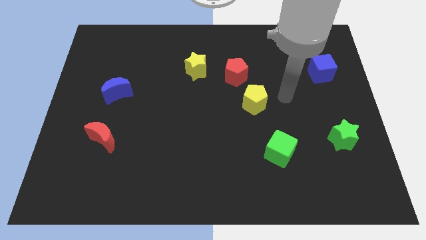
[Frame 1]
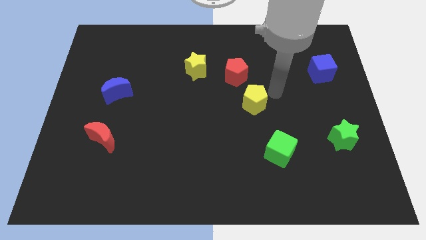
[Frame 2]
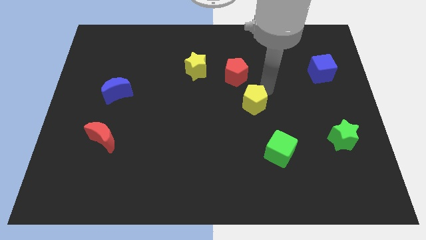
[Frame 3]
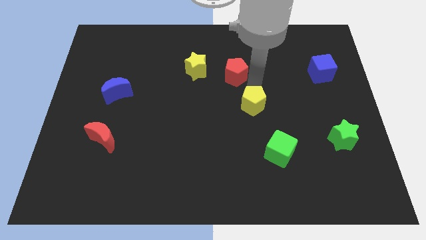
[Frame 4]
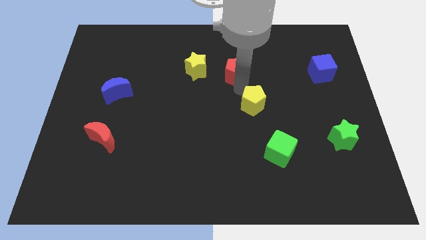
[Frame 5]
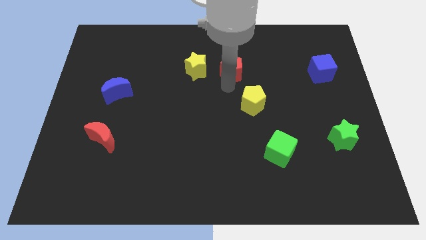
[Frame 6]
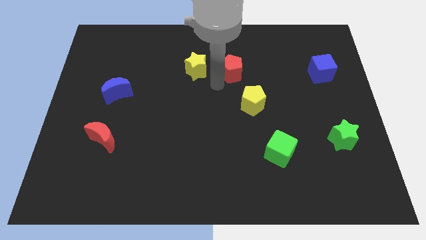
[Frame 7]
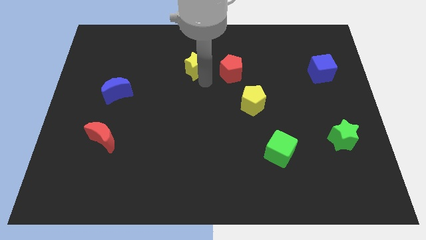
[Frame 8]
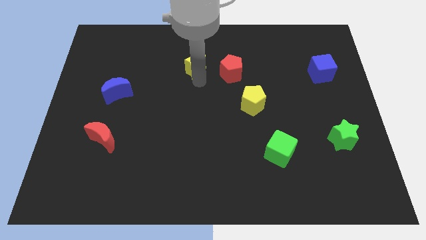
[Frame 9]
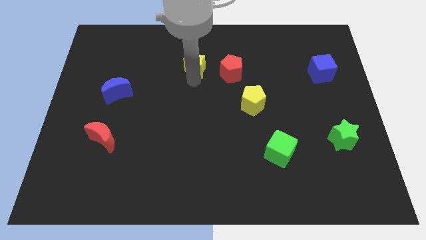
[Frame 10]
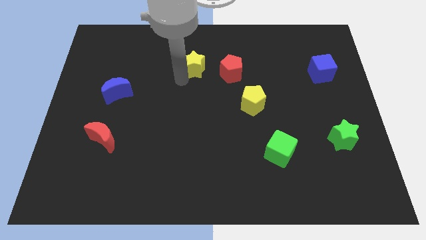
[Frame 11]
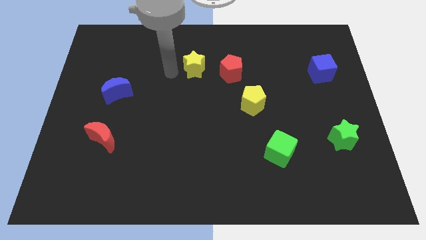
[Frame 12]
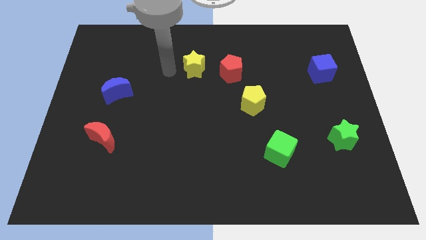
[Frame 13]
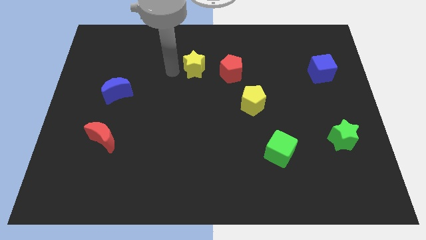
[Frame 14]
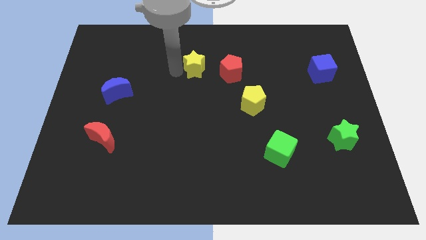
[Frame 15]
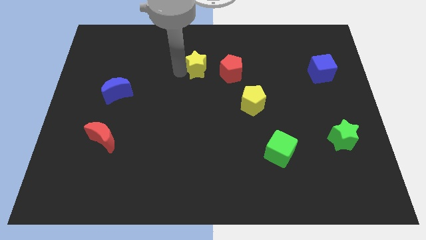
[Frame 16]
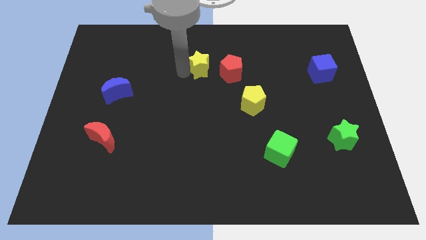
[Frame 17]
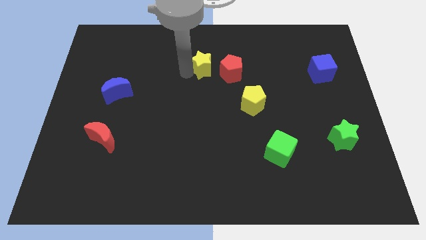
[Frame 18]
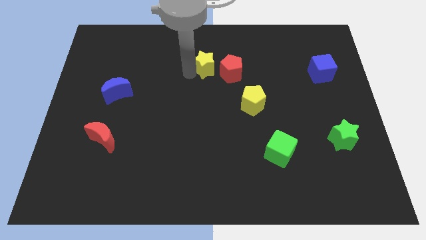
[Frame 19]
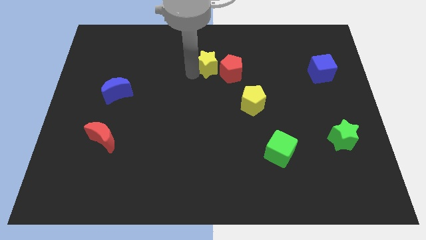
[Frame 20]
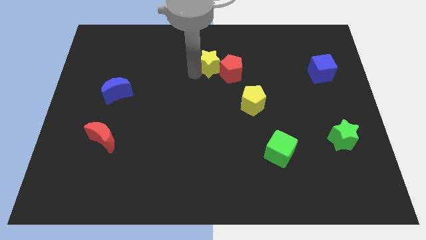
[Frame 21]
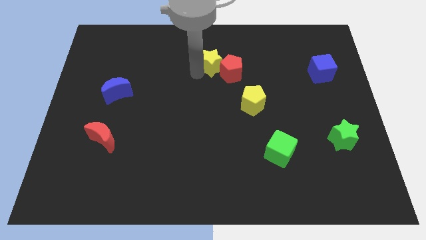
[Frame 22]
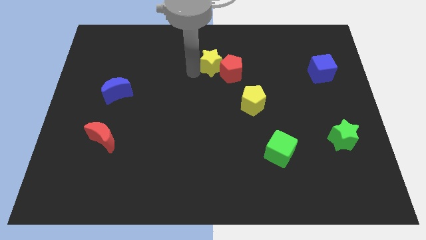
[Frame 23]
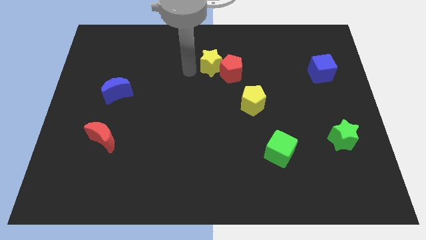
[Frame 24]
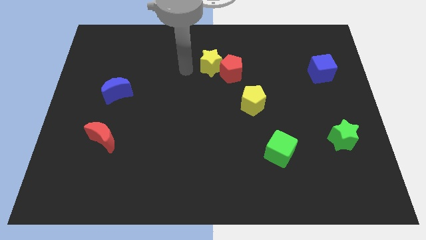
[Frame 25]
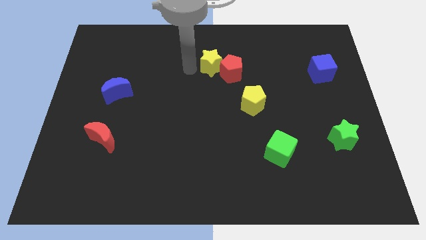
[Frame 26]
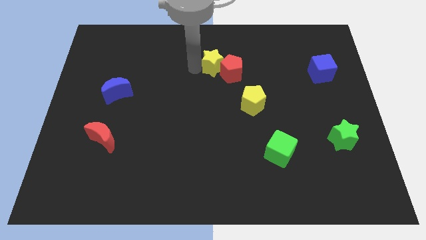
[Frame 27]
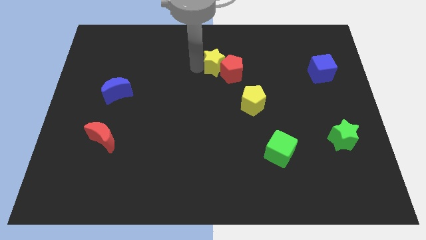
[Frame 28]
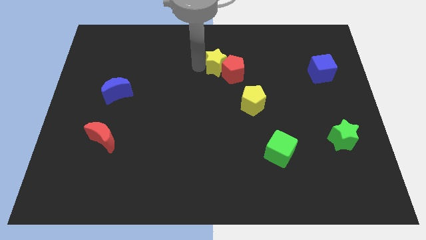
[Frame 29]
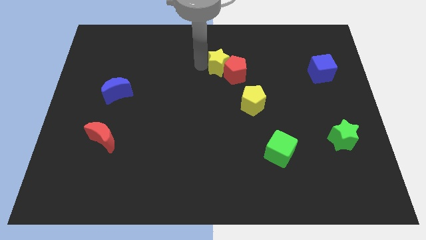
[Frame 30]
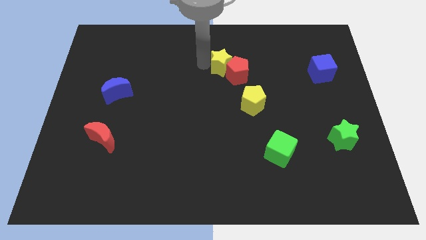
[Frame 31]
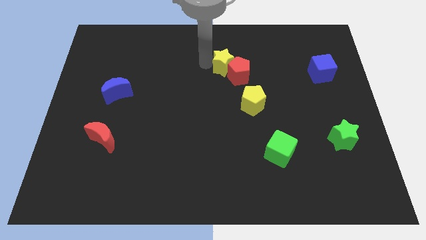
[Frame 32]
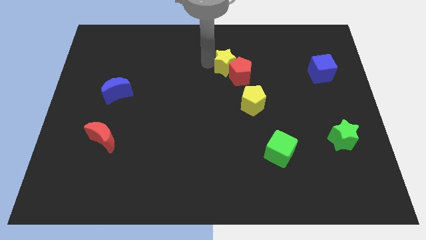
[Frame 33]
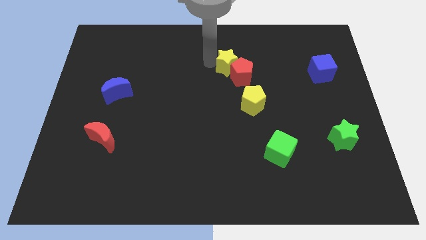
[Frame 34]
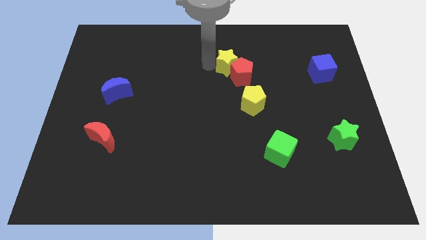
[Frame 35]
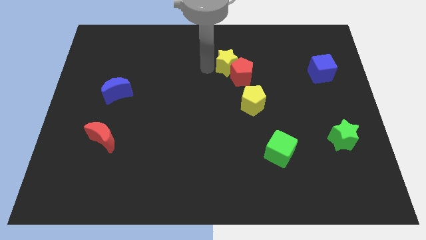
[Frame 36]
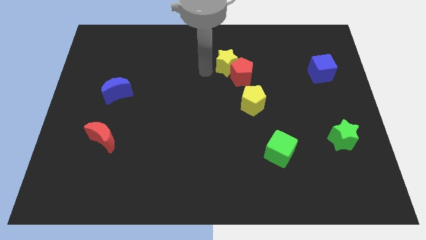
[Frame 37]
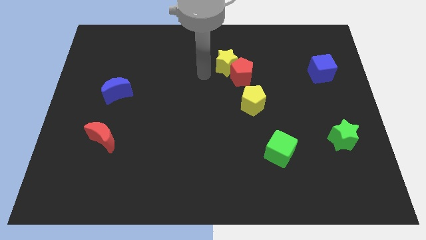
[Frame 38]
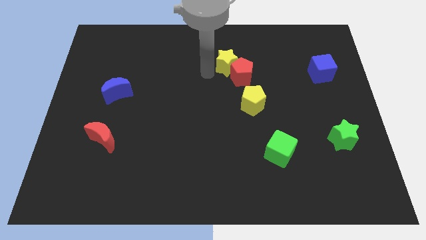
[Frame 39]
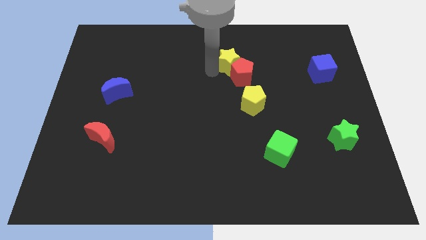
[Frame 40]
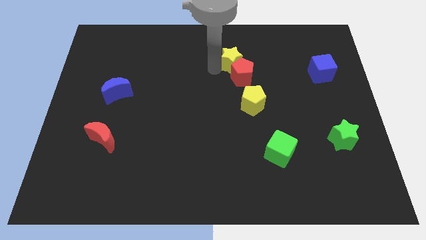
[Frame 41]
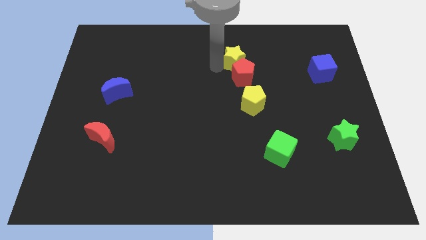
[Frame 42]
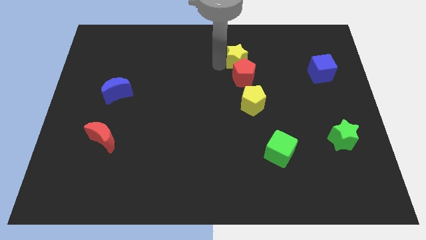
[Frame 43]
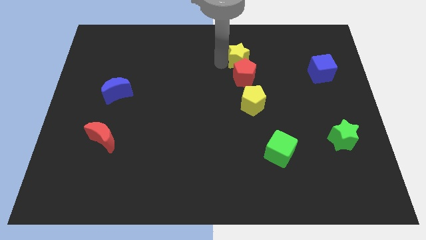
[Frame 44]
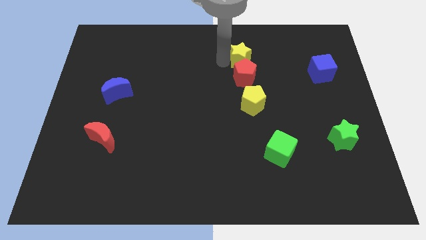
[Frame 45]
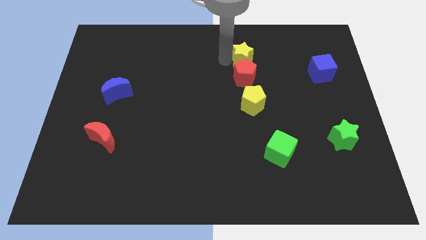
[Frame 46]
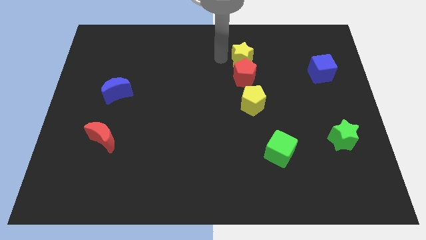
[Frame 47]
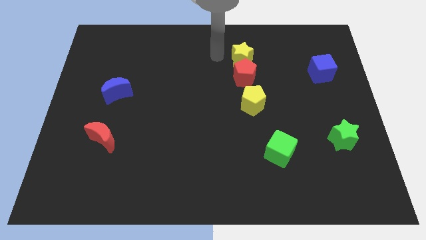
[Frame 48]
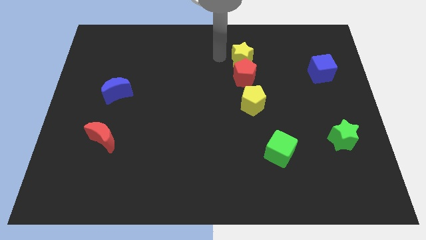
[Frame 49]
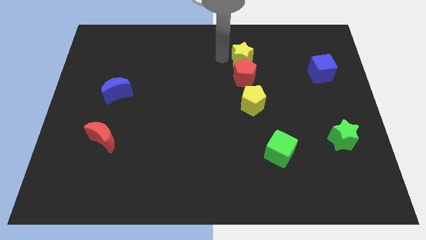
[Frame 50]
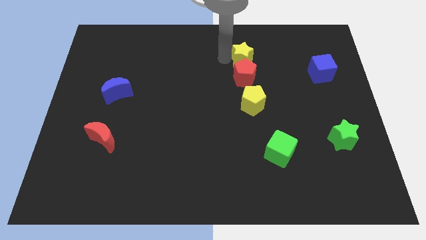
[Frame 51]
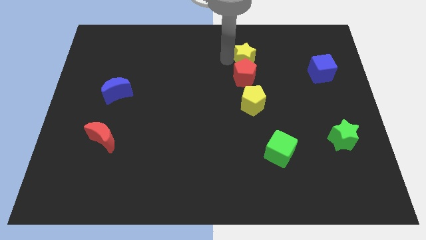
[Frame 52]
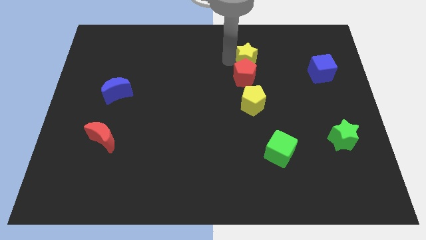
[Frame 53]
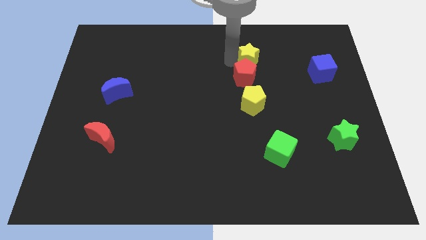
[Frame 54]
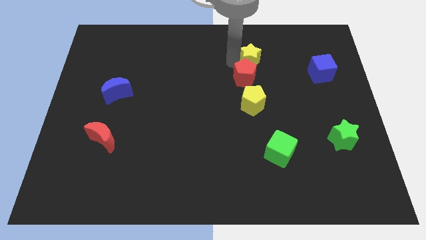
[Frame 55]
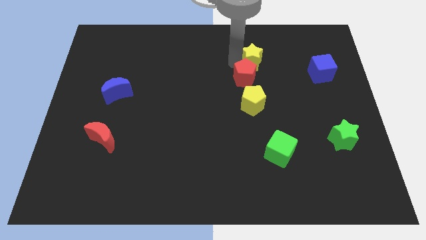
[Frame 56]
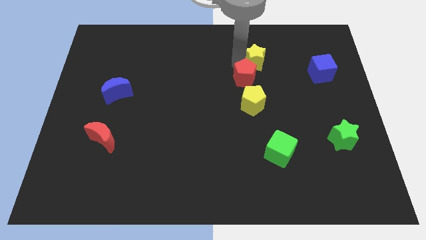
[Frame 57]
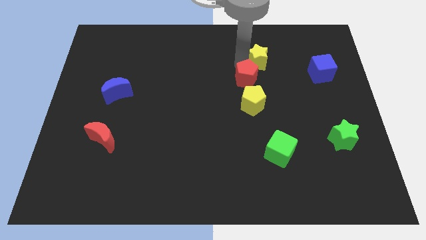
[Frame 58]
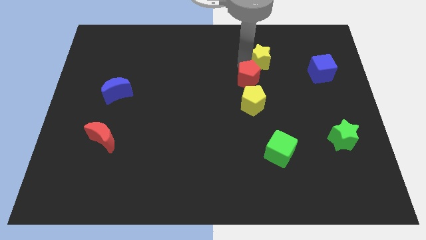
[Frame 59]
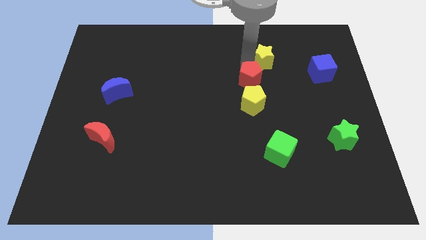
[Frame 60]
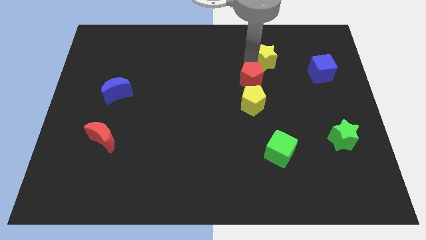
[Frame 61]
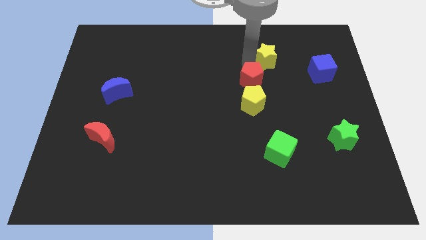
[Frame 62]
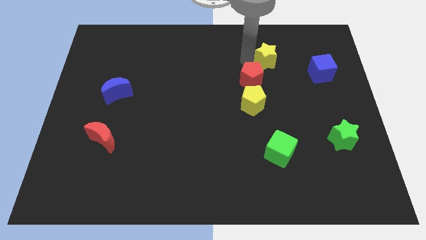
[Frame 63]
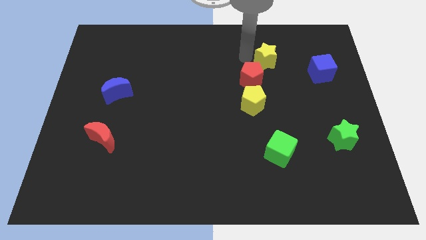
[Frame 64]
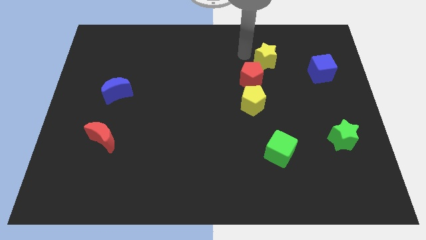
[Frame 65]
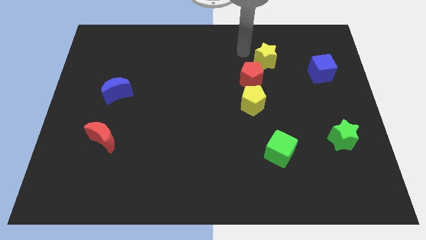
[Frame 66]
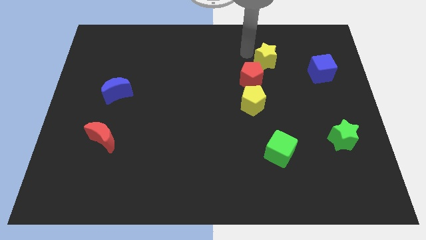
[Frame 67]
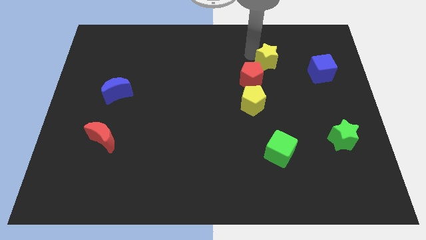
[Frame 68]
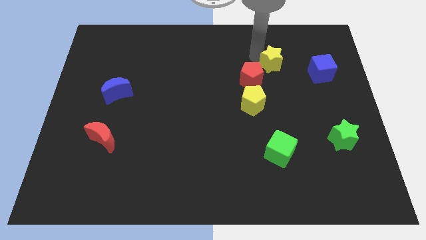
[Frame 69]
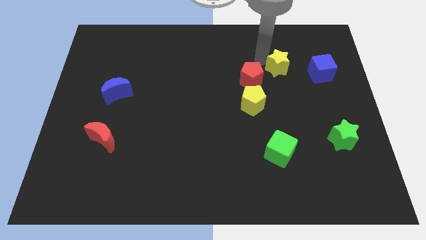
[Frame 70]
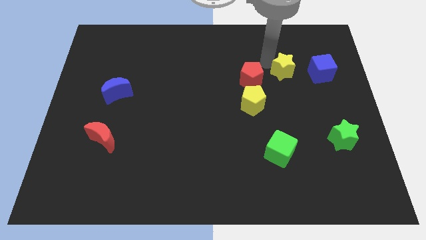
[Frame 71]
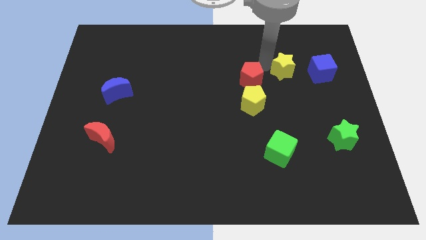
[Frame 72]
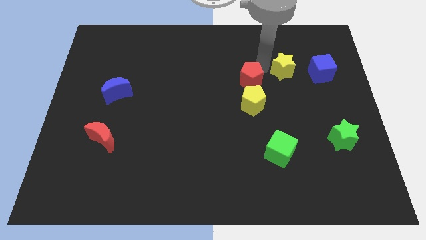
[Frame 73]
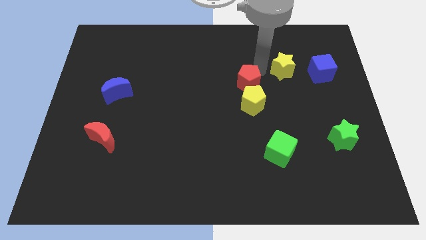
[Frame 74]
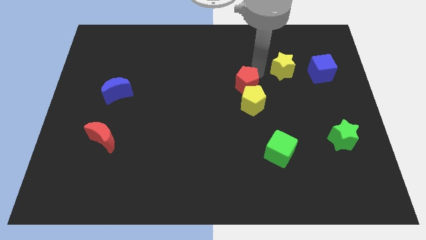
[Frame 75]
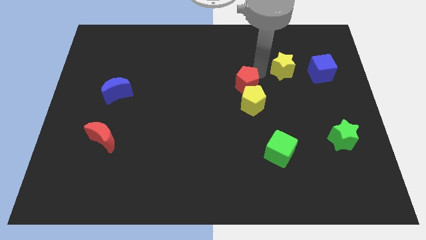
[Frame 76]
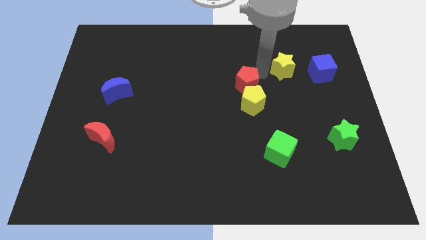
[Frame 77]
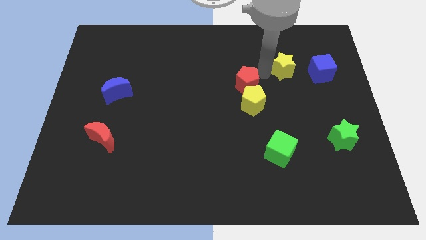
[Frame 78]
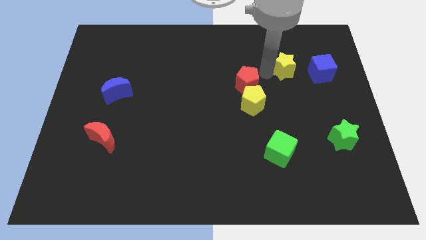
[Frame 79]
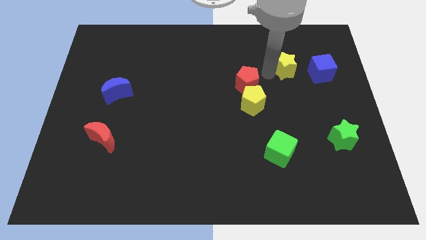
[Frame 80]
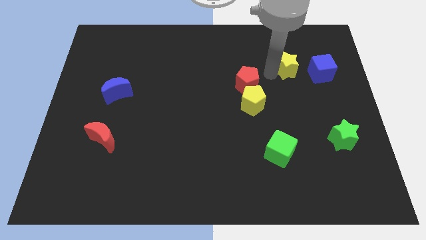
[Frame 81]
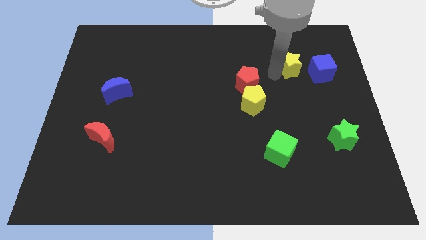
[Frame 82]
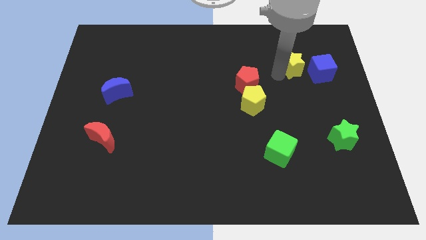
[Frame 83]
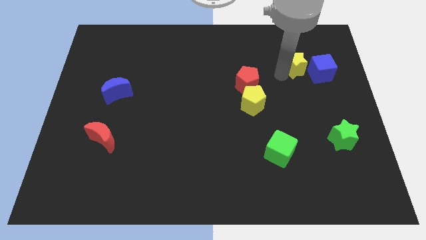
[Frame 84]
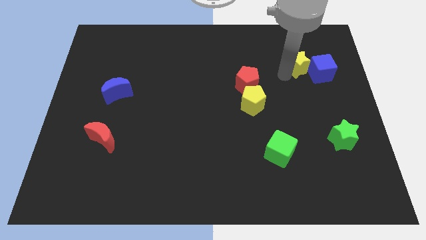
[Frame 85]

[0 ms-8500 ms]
slide the yellow star next to the blue cube

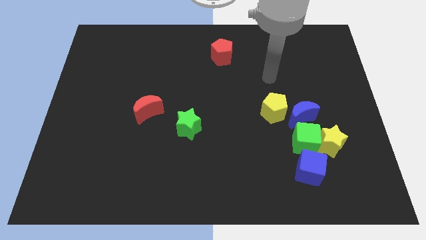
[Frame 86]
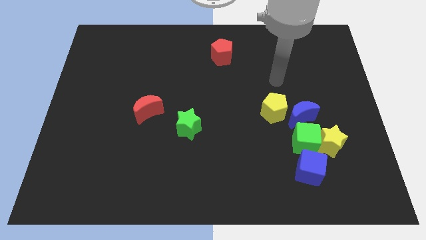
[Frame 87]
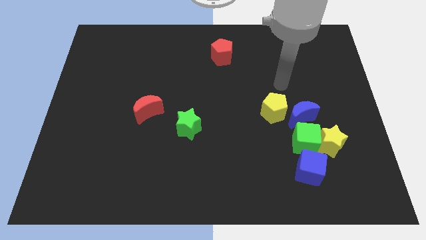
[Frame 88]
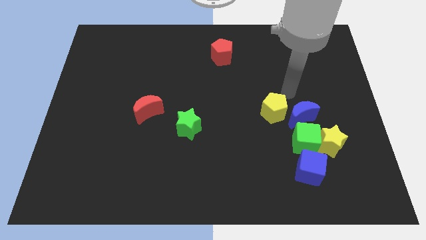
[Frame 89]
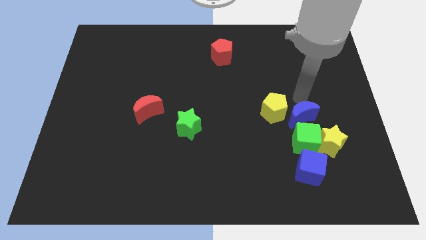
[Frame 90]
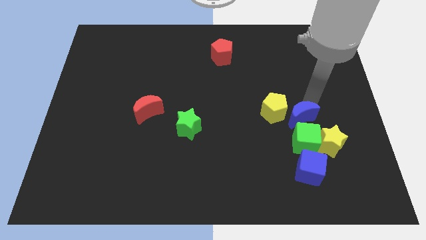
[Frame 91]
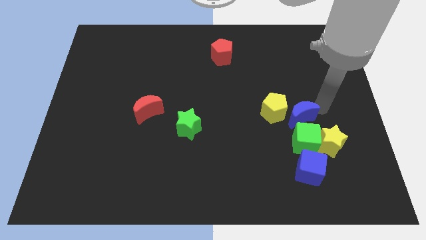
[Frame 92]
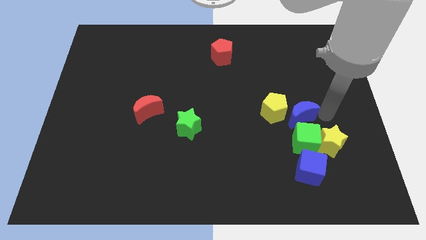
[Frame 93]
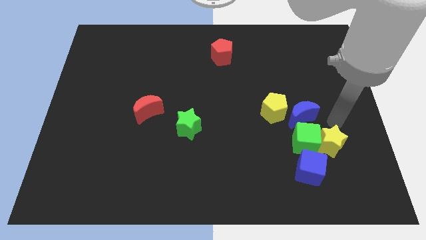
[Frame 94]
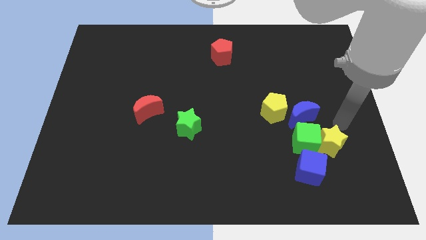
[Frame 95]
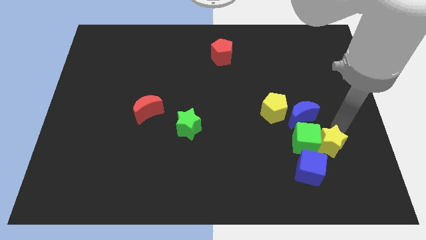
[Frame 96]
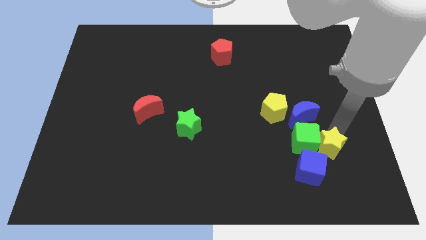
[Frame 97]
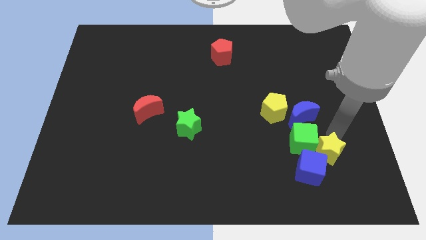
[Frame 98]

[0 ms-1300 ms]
push the yellow star towards the blue cube
